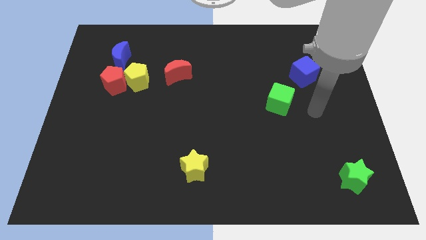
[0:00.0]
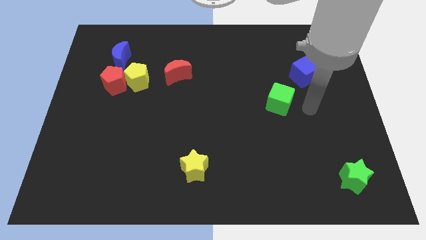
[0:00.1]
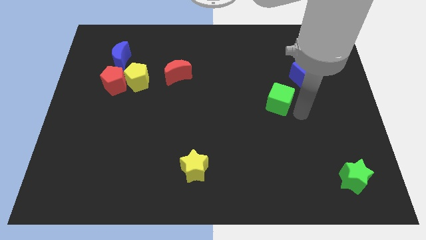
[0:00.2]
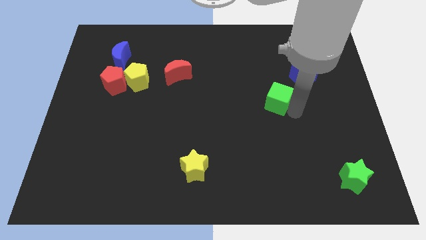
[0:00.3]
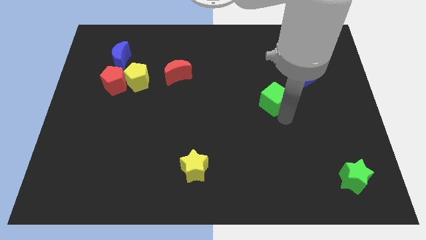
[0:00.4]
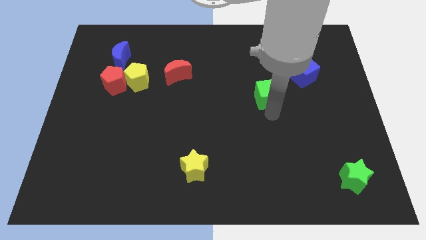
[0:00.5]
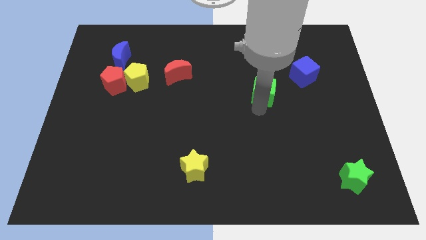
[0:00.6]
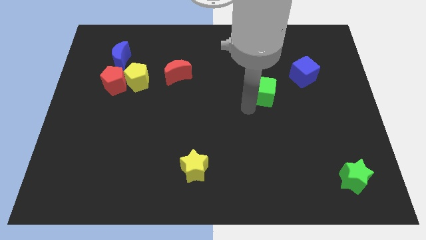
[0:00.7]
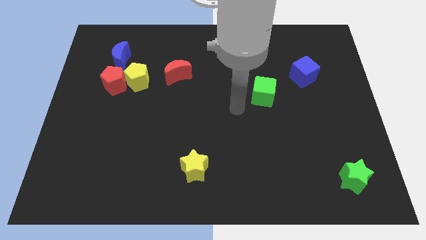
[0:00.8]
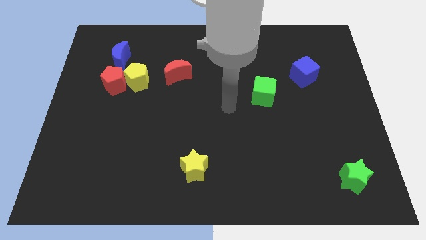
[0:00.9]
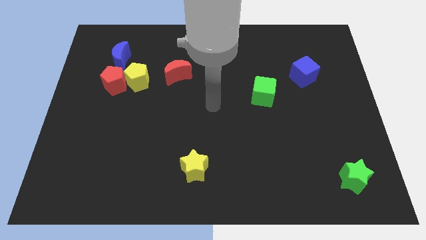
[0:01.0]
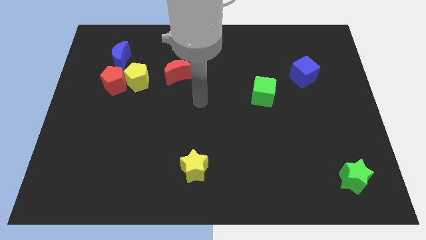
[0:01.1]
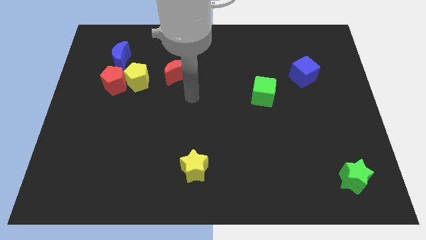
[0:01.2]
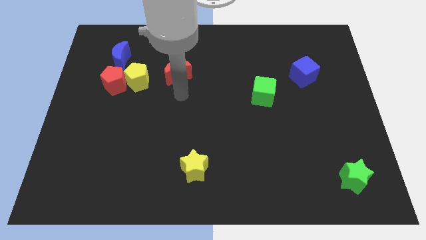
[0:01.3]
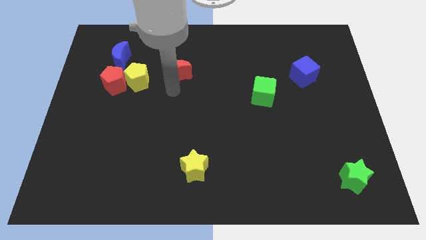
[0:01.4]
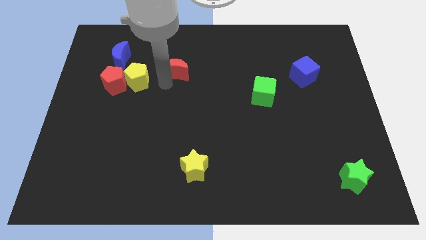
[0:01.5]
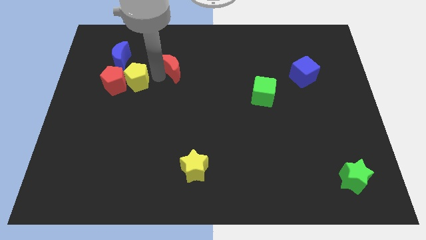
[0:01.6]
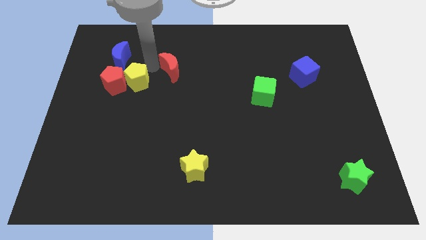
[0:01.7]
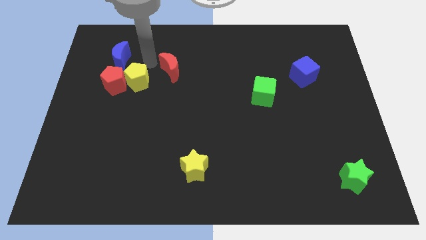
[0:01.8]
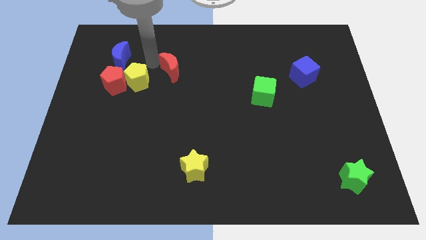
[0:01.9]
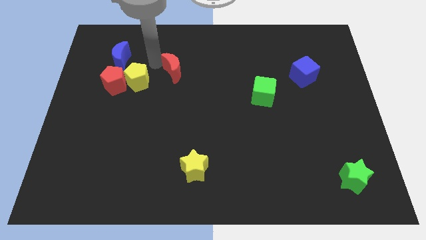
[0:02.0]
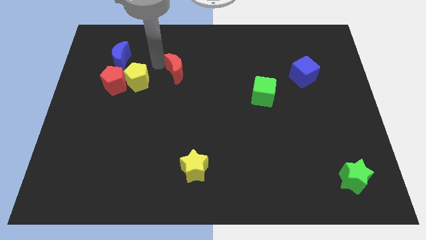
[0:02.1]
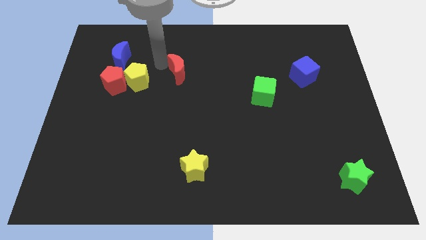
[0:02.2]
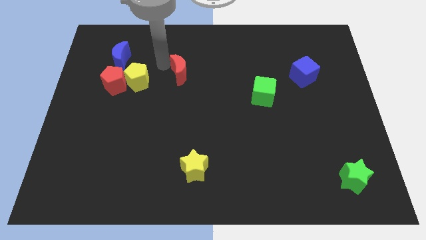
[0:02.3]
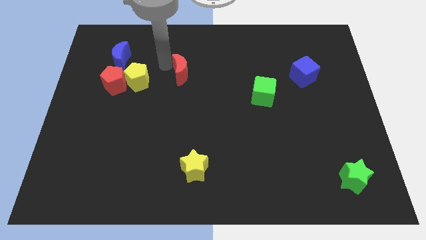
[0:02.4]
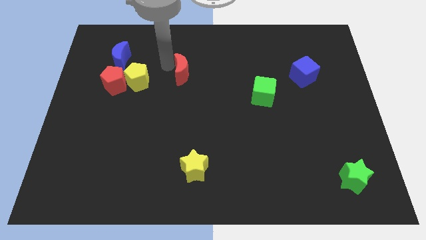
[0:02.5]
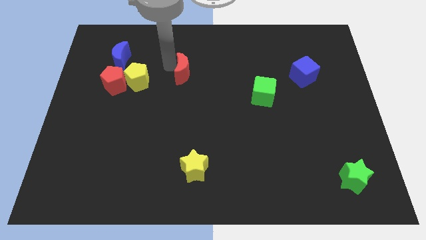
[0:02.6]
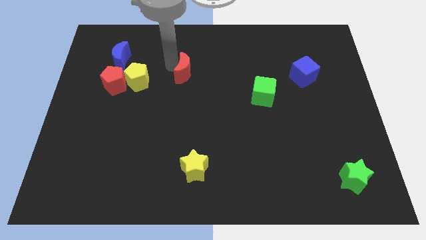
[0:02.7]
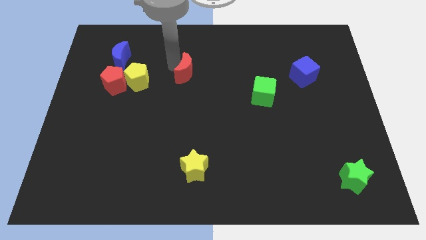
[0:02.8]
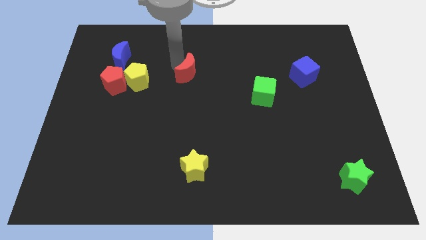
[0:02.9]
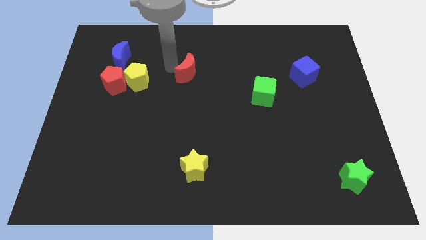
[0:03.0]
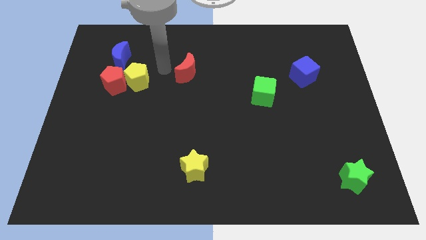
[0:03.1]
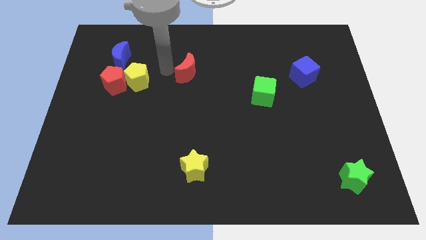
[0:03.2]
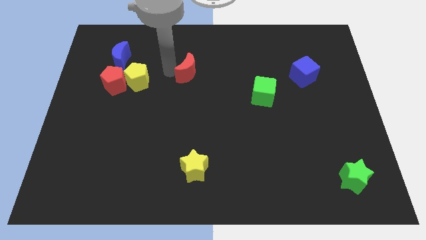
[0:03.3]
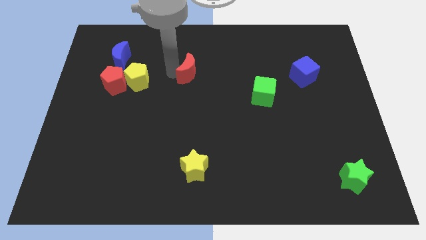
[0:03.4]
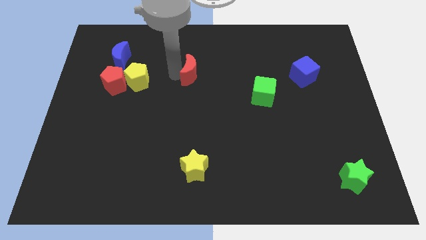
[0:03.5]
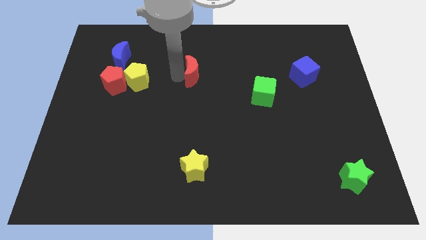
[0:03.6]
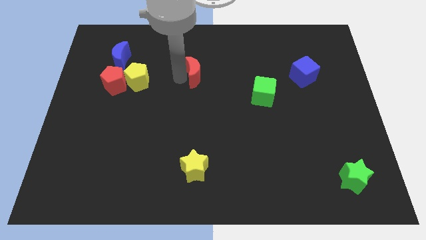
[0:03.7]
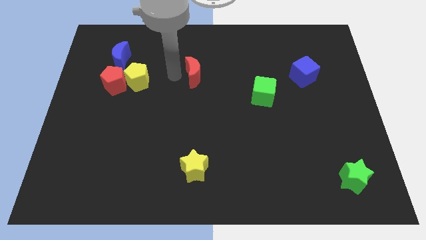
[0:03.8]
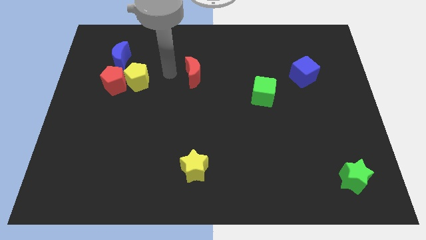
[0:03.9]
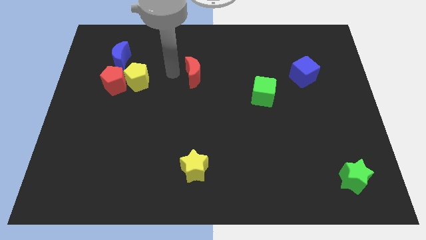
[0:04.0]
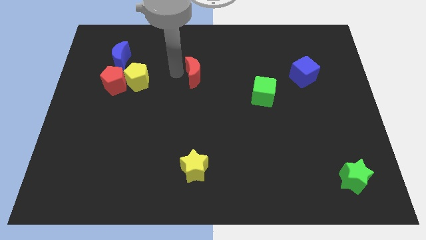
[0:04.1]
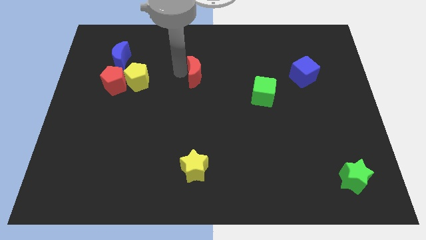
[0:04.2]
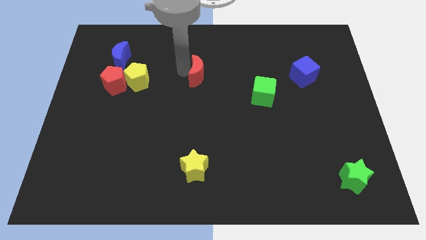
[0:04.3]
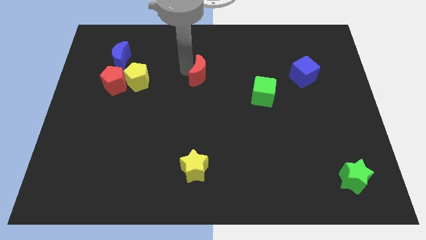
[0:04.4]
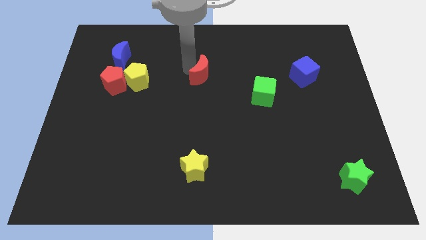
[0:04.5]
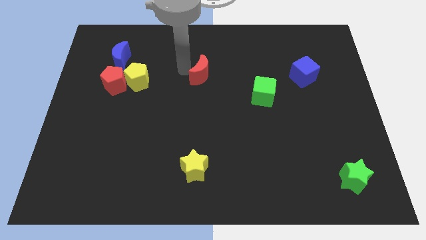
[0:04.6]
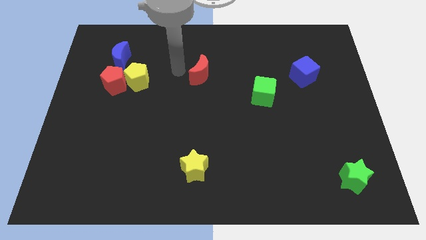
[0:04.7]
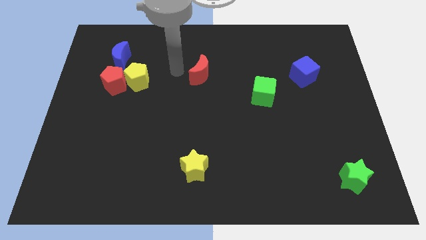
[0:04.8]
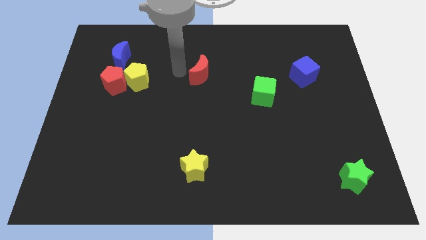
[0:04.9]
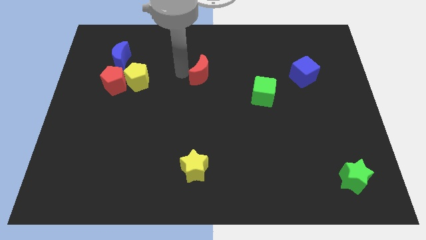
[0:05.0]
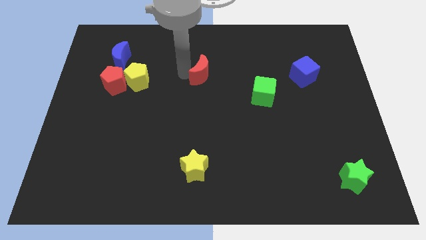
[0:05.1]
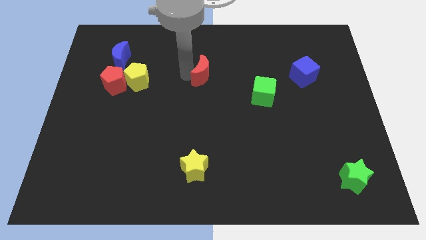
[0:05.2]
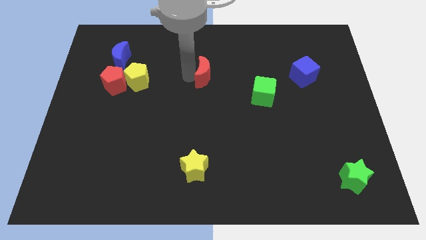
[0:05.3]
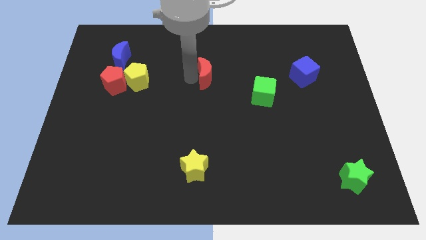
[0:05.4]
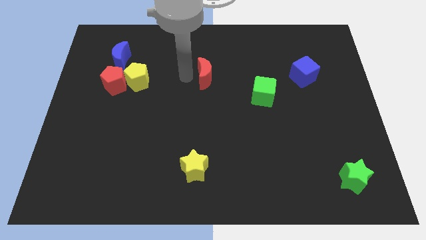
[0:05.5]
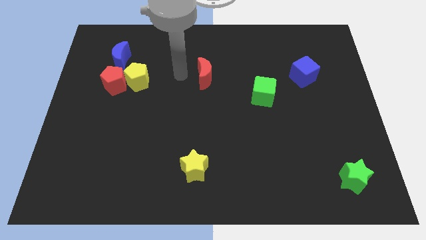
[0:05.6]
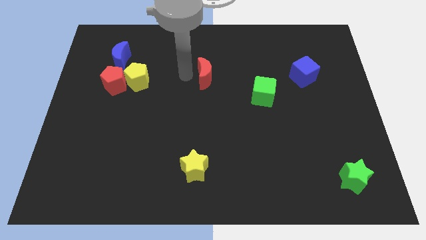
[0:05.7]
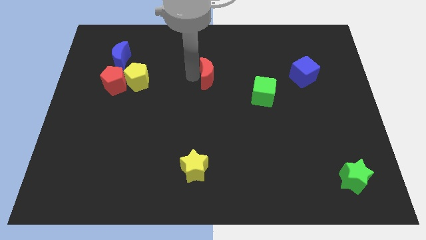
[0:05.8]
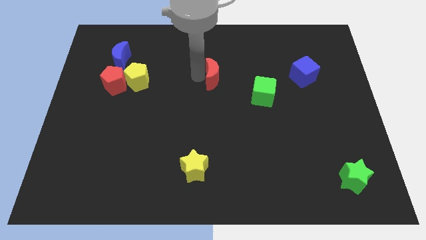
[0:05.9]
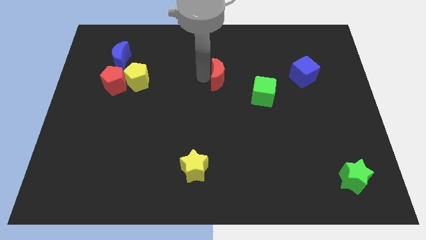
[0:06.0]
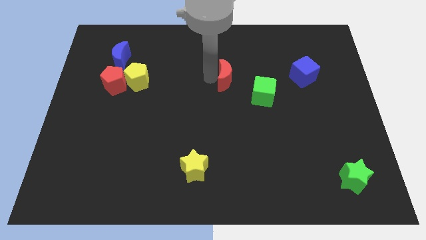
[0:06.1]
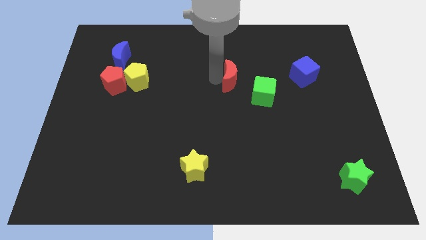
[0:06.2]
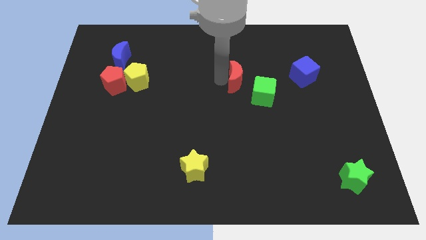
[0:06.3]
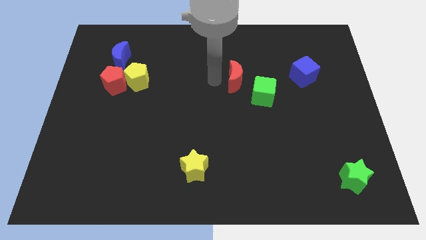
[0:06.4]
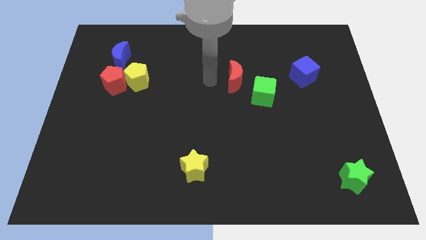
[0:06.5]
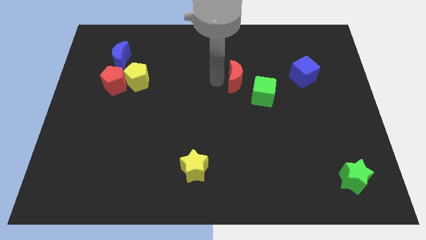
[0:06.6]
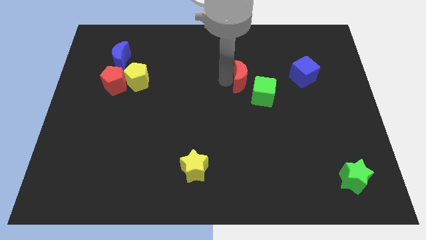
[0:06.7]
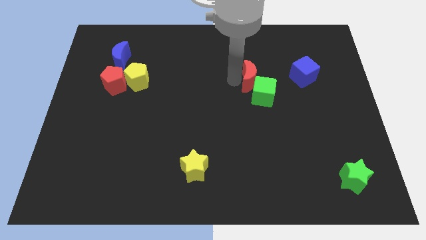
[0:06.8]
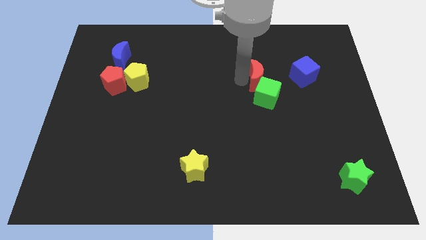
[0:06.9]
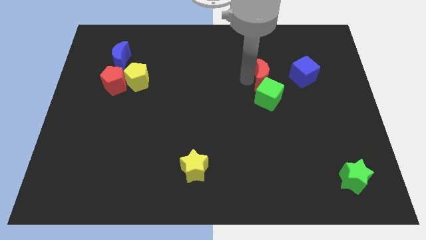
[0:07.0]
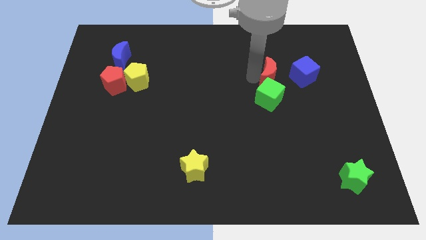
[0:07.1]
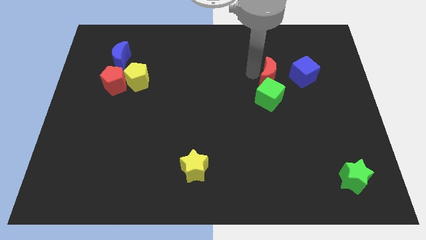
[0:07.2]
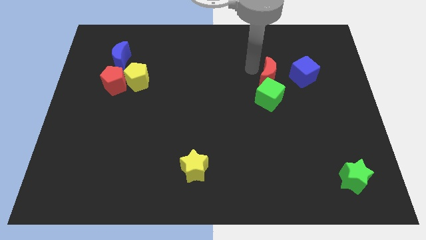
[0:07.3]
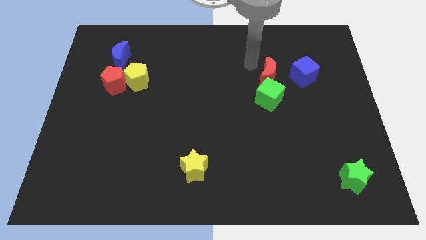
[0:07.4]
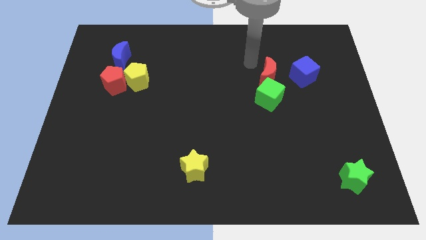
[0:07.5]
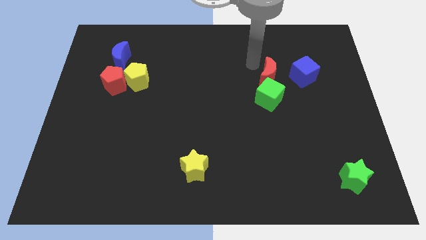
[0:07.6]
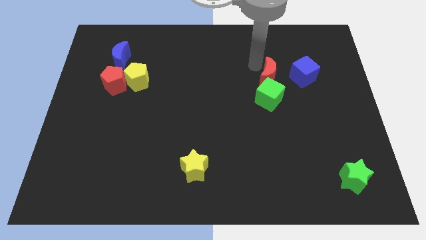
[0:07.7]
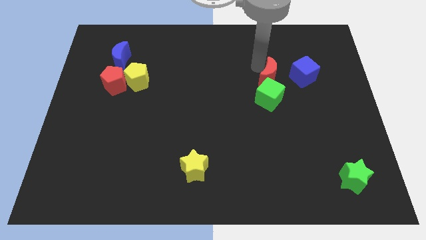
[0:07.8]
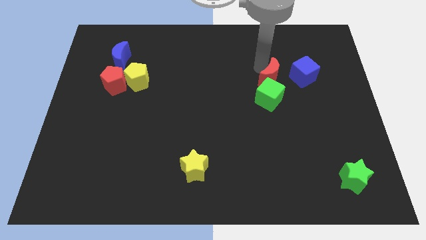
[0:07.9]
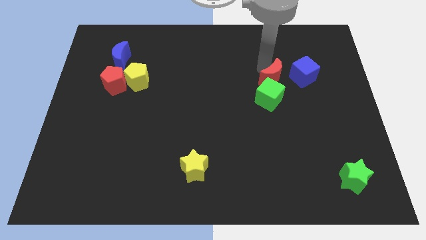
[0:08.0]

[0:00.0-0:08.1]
move the red moon to the bottom left side of the blue cube

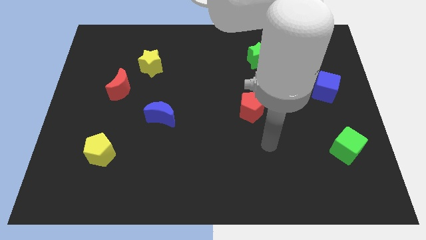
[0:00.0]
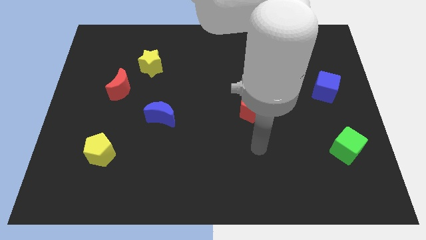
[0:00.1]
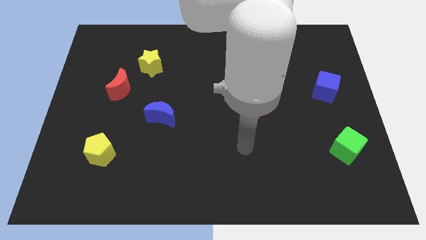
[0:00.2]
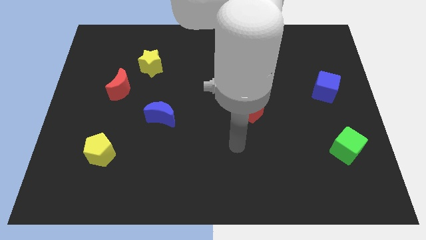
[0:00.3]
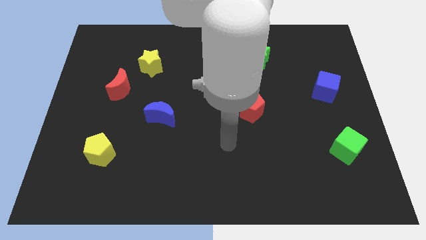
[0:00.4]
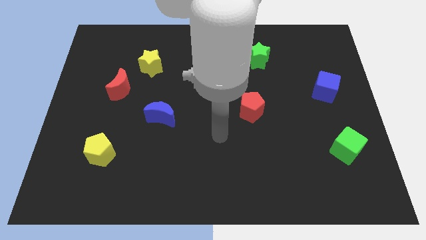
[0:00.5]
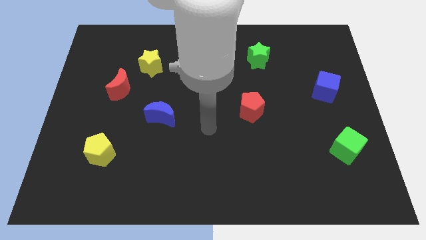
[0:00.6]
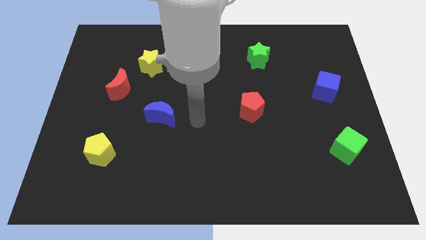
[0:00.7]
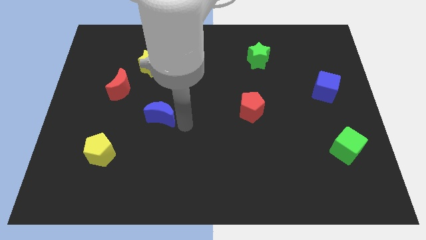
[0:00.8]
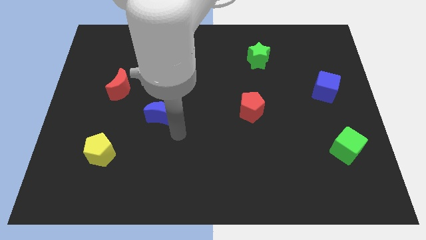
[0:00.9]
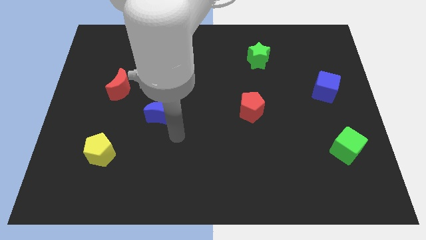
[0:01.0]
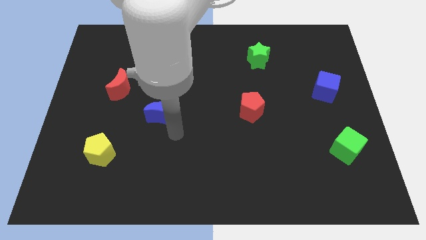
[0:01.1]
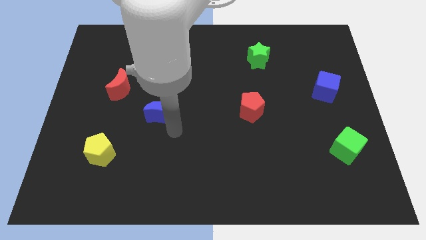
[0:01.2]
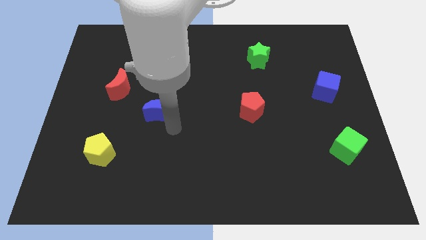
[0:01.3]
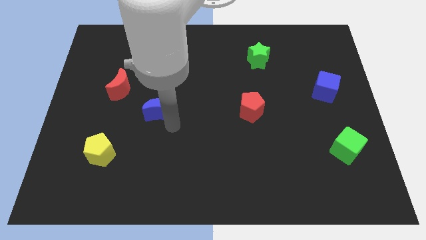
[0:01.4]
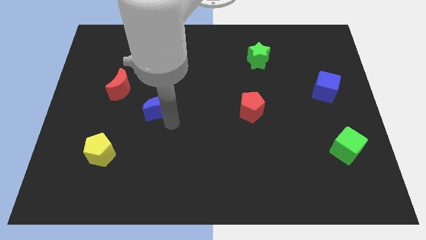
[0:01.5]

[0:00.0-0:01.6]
put the blue moon below the yellow star
